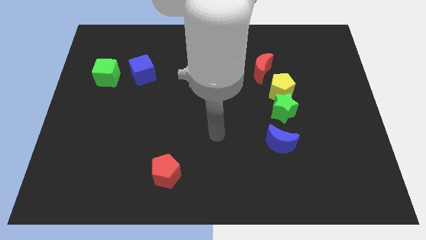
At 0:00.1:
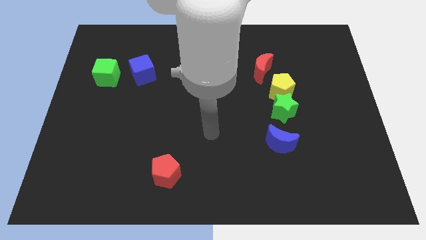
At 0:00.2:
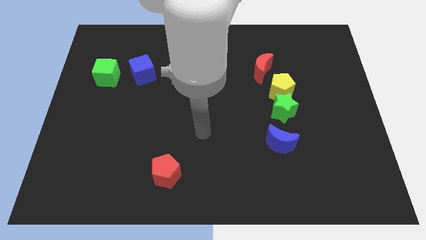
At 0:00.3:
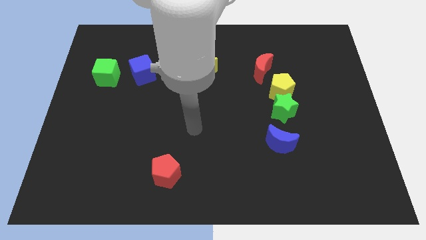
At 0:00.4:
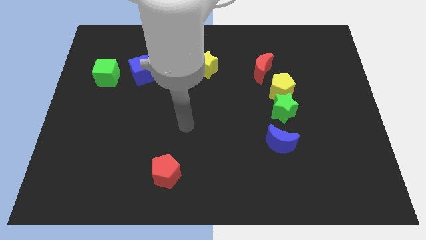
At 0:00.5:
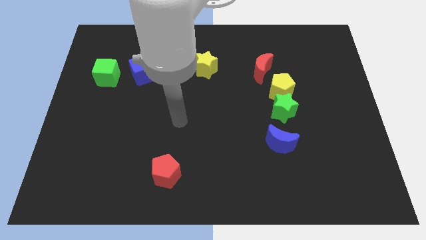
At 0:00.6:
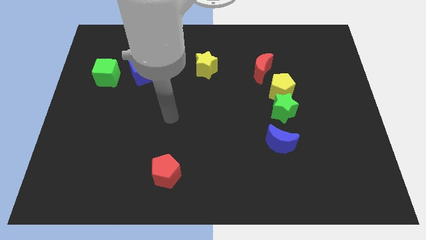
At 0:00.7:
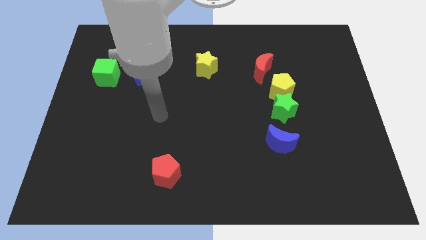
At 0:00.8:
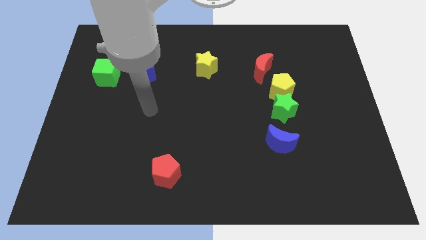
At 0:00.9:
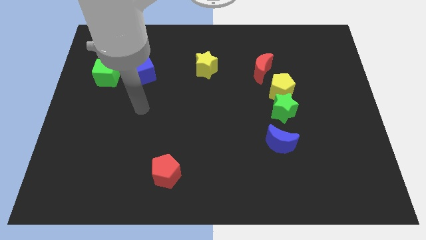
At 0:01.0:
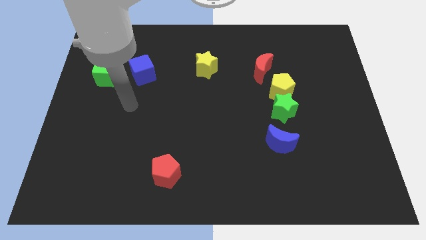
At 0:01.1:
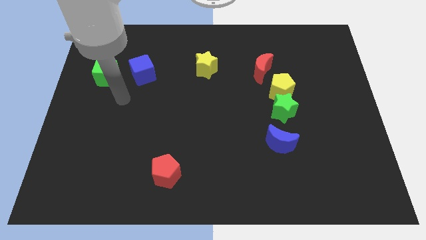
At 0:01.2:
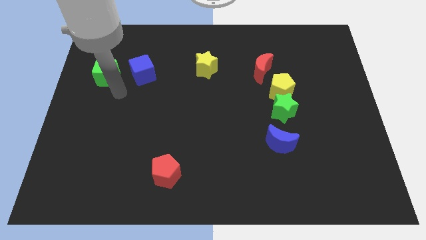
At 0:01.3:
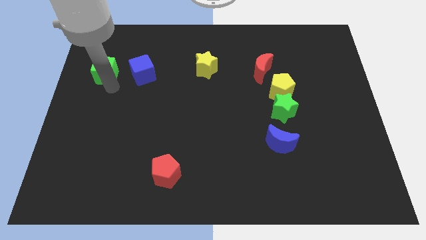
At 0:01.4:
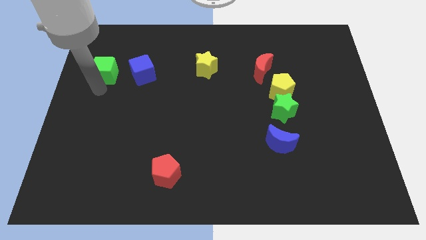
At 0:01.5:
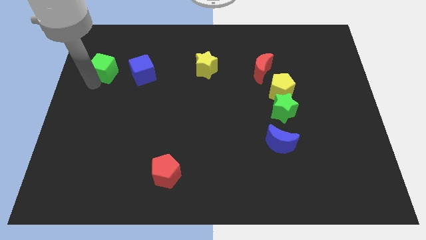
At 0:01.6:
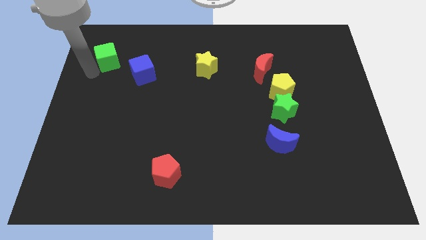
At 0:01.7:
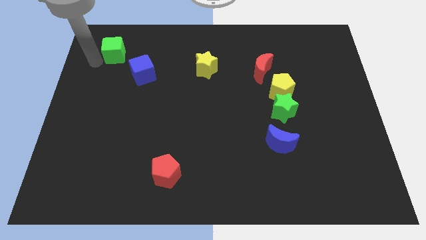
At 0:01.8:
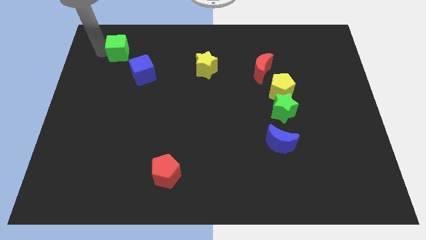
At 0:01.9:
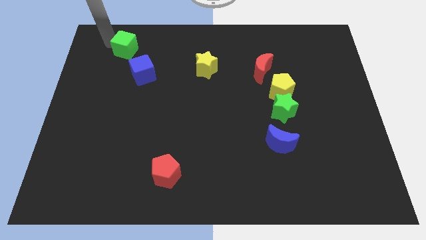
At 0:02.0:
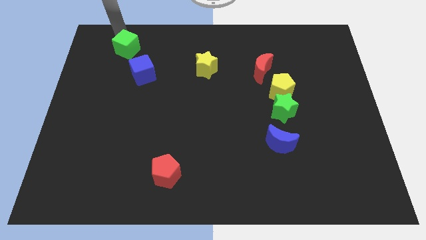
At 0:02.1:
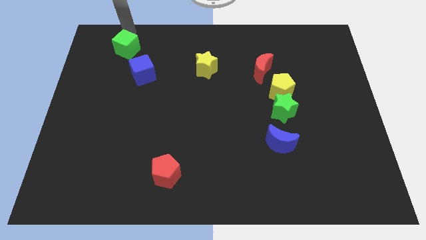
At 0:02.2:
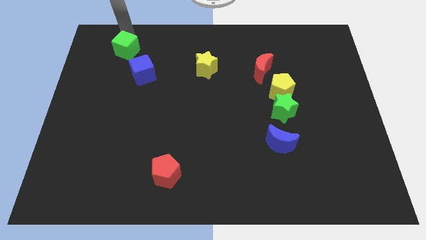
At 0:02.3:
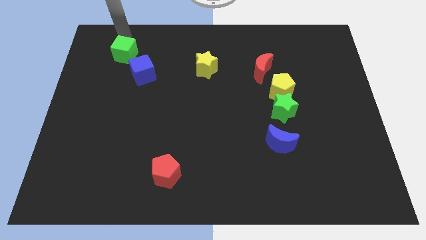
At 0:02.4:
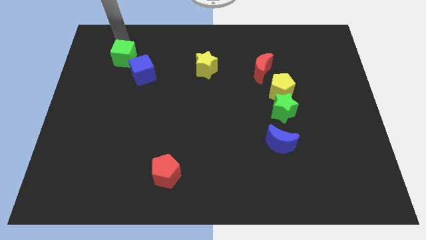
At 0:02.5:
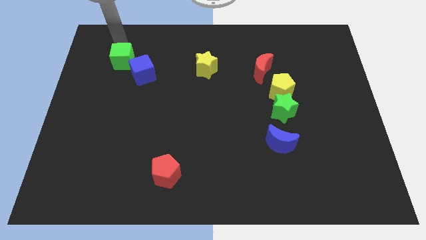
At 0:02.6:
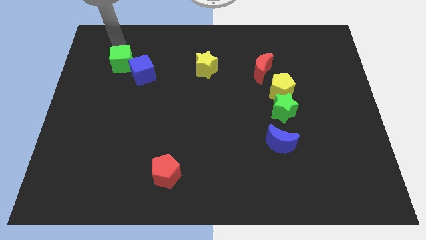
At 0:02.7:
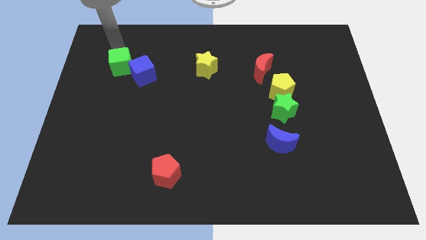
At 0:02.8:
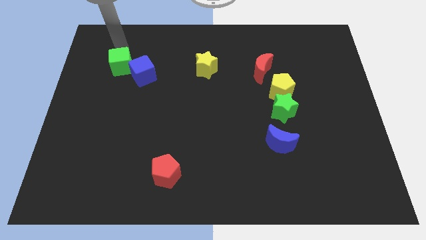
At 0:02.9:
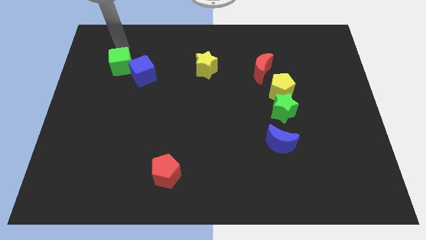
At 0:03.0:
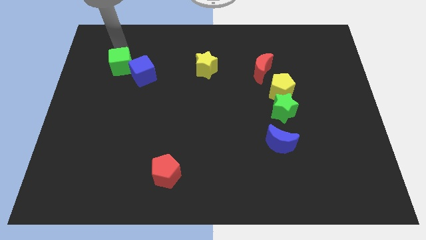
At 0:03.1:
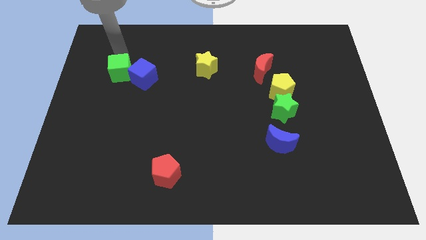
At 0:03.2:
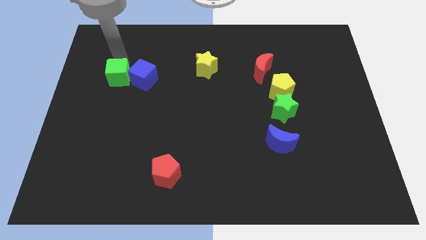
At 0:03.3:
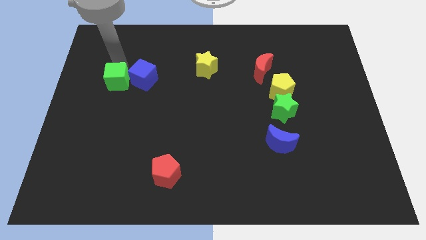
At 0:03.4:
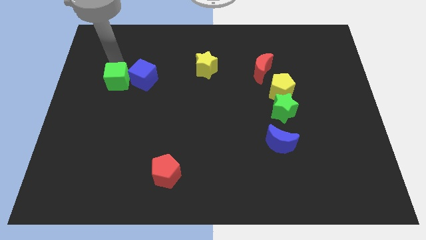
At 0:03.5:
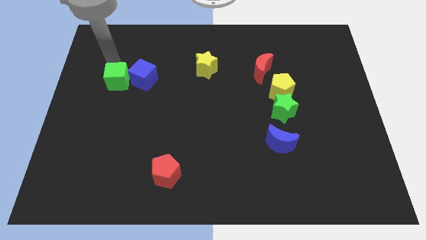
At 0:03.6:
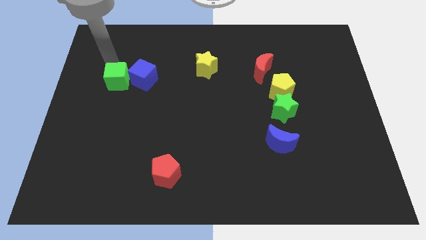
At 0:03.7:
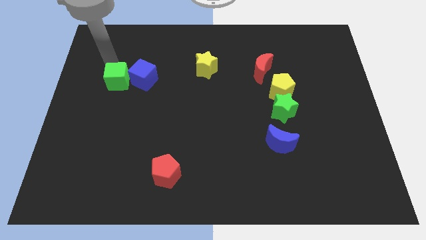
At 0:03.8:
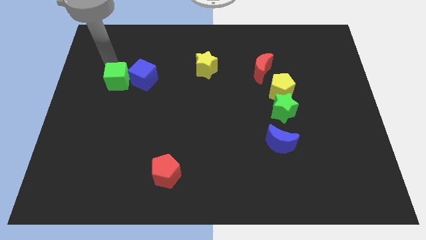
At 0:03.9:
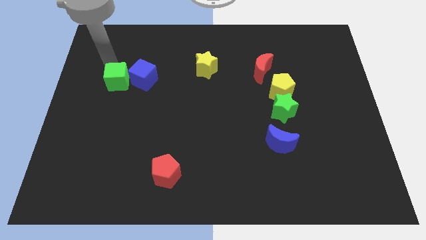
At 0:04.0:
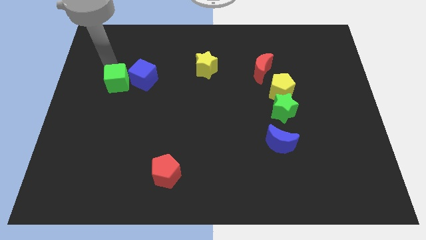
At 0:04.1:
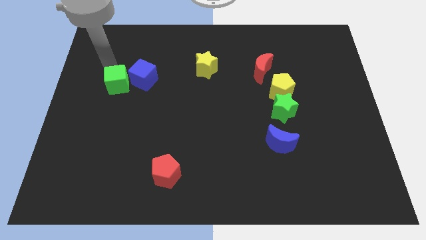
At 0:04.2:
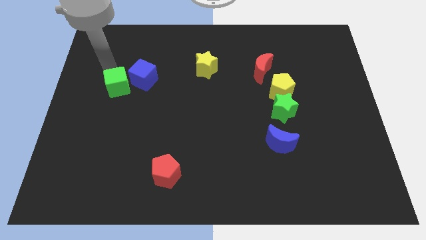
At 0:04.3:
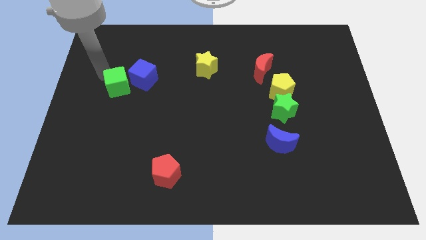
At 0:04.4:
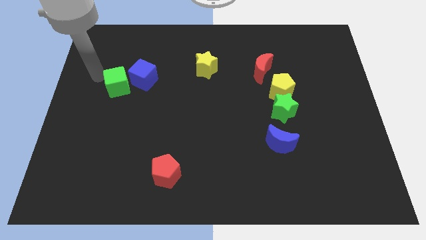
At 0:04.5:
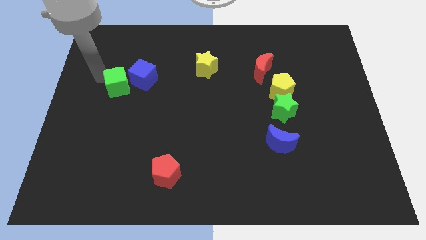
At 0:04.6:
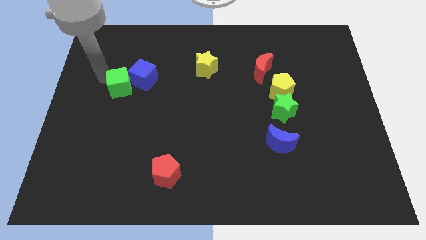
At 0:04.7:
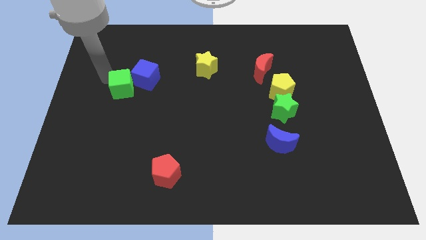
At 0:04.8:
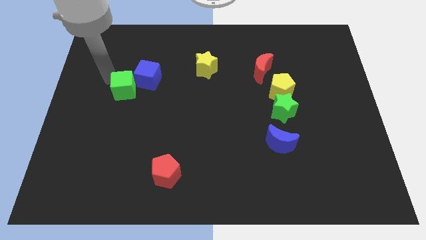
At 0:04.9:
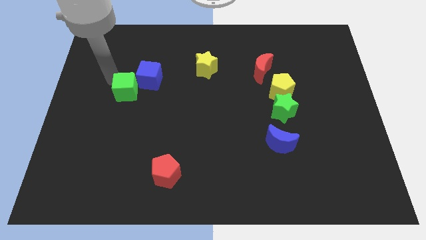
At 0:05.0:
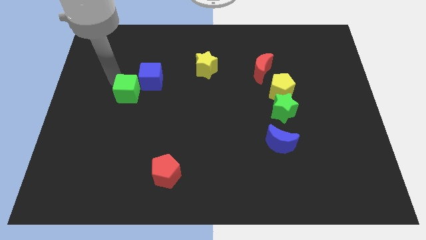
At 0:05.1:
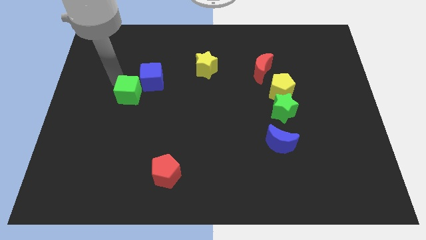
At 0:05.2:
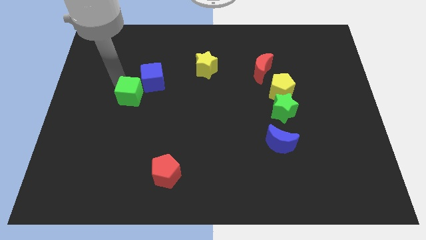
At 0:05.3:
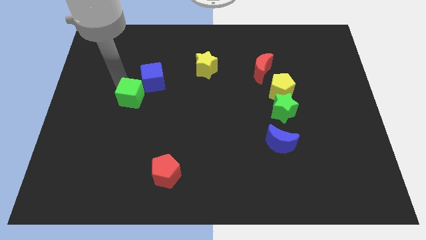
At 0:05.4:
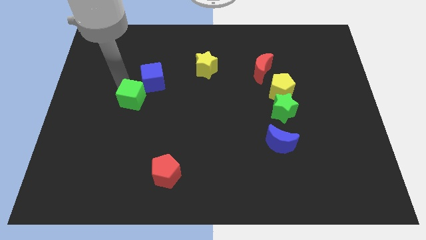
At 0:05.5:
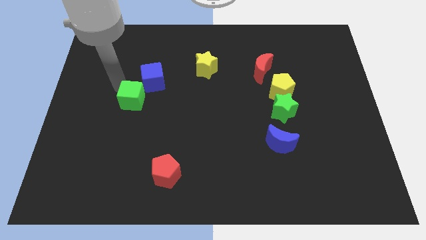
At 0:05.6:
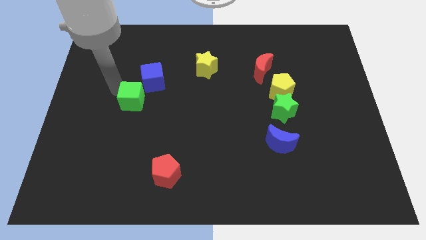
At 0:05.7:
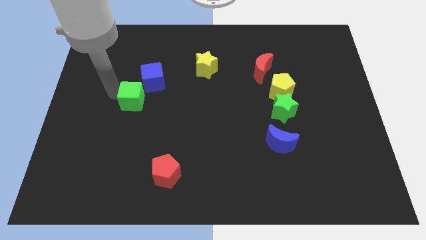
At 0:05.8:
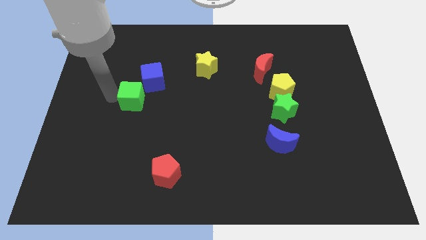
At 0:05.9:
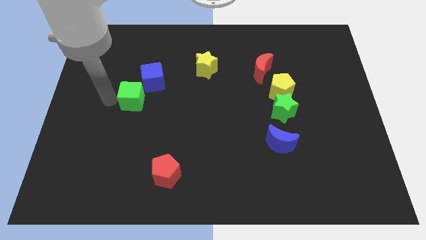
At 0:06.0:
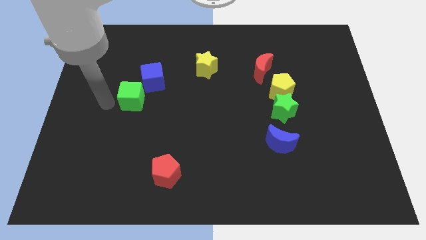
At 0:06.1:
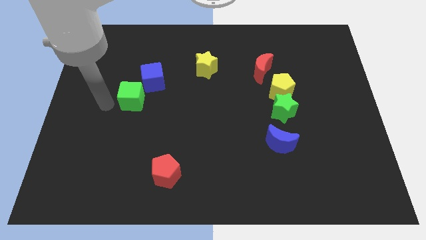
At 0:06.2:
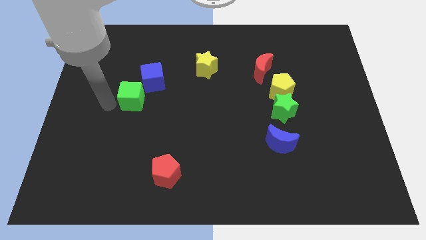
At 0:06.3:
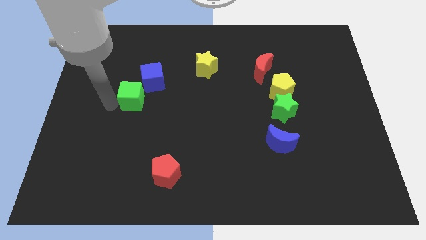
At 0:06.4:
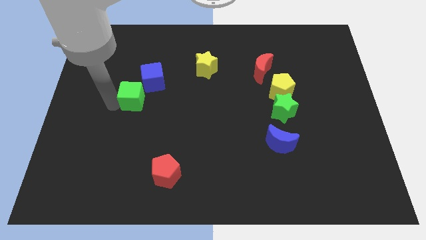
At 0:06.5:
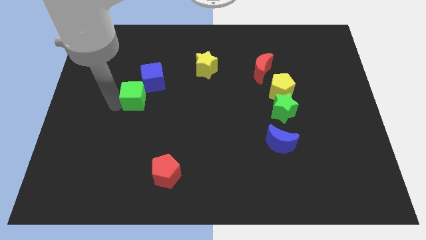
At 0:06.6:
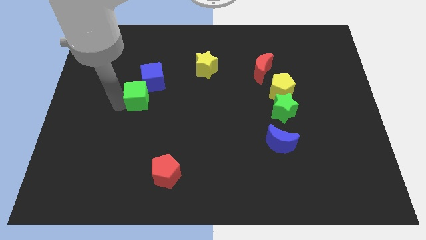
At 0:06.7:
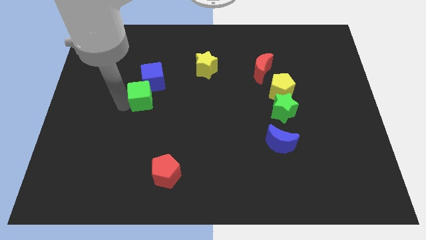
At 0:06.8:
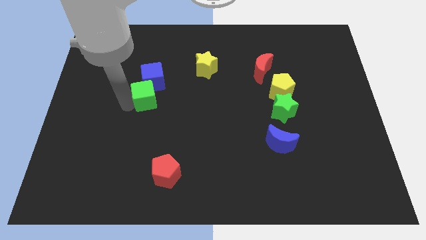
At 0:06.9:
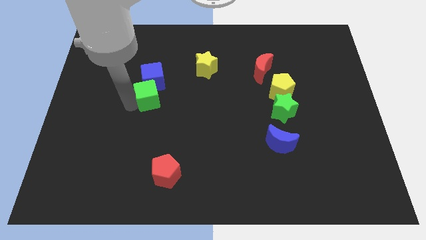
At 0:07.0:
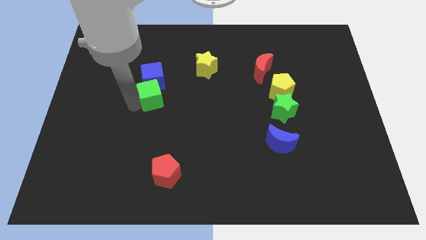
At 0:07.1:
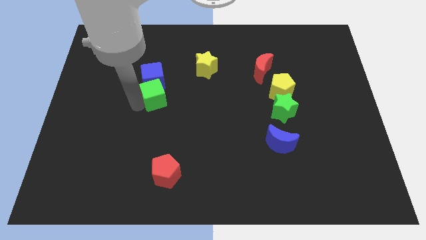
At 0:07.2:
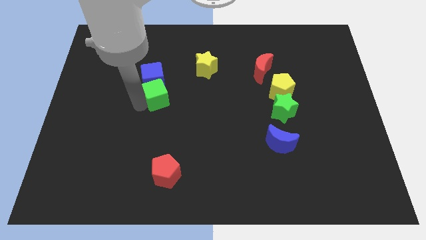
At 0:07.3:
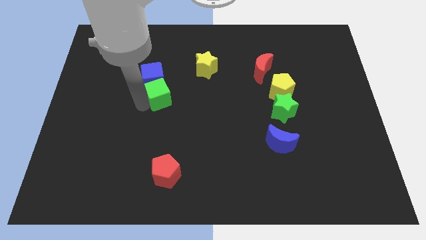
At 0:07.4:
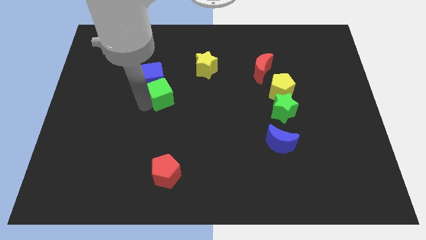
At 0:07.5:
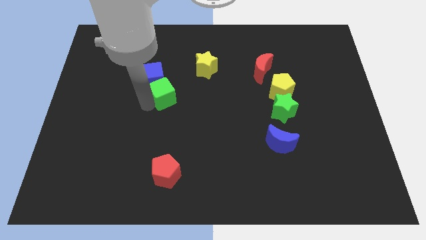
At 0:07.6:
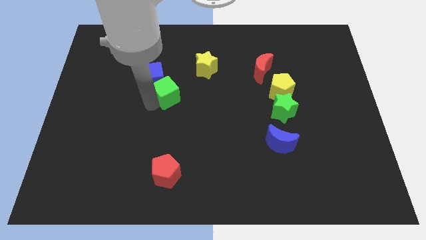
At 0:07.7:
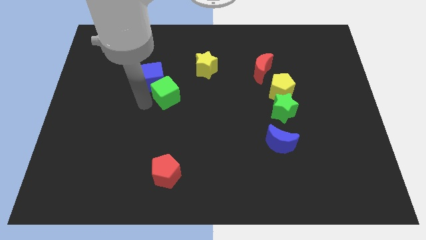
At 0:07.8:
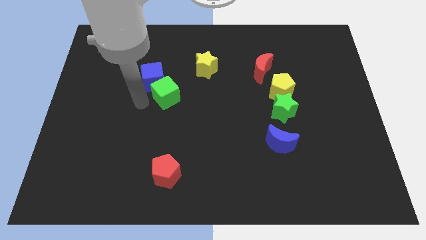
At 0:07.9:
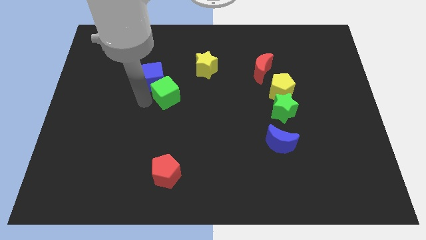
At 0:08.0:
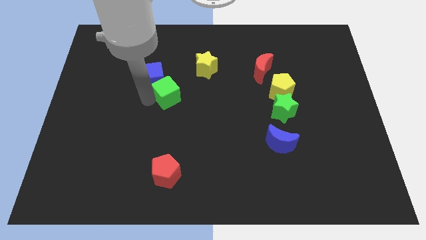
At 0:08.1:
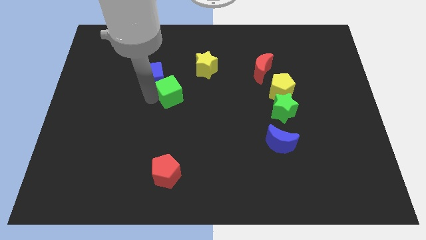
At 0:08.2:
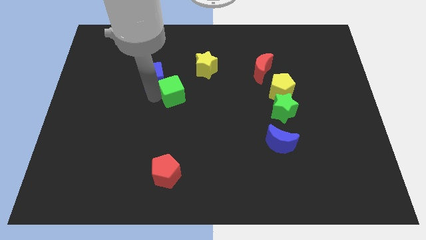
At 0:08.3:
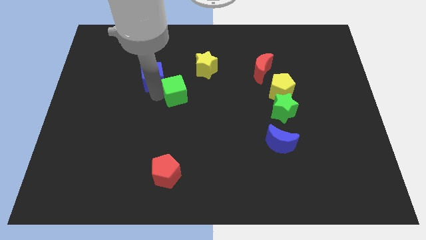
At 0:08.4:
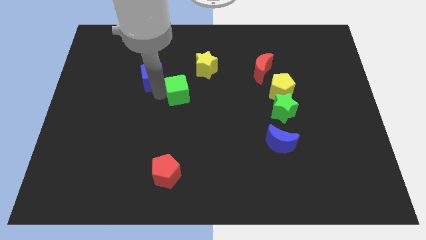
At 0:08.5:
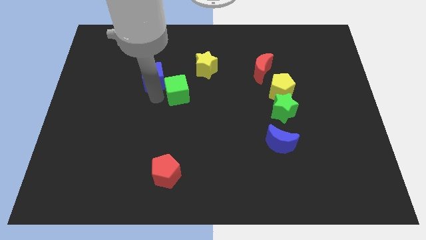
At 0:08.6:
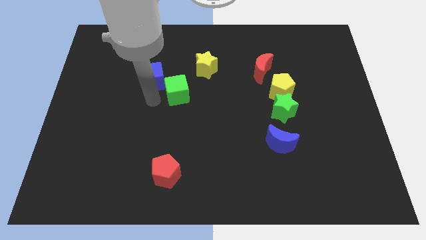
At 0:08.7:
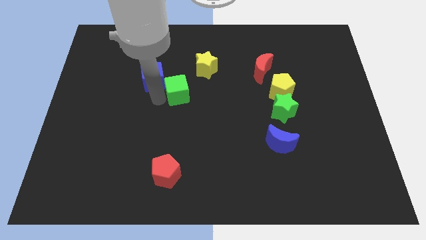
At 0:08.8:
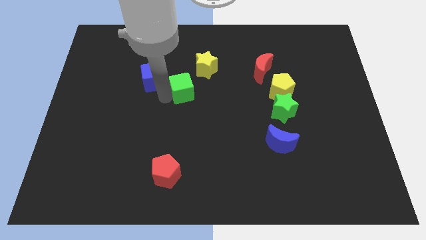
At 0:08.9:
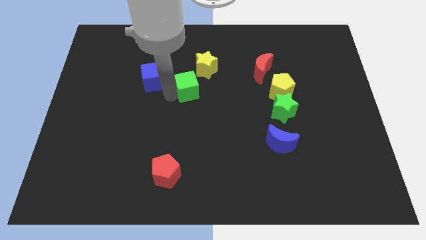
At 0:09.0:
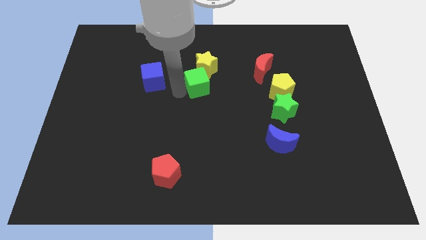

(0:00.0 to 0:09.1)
slide the green cube right
